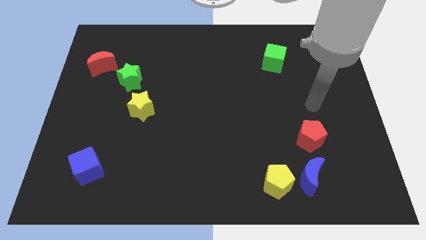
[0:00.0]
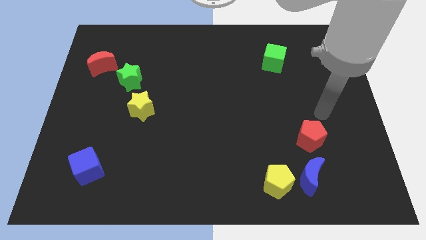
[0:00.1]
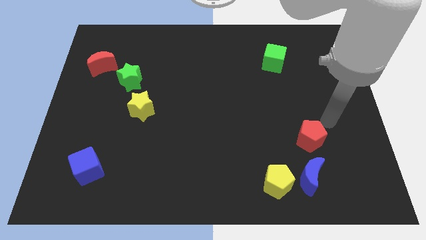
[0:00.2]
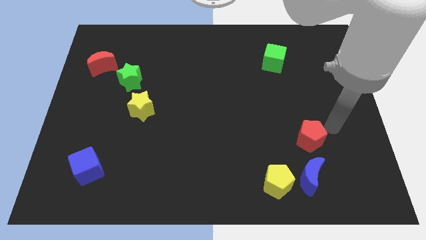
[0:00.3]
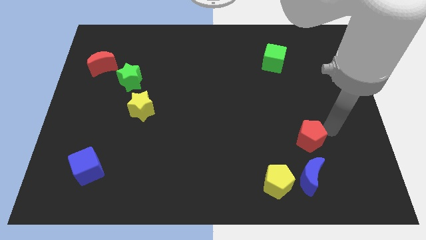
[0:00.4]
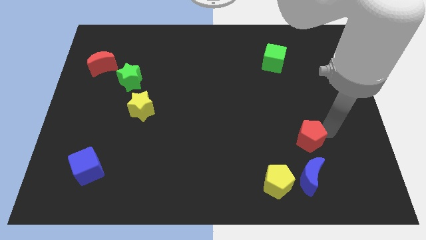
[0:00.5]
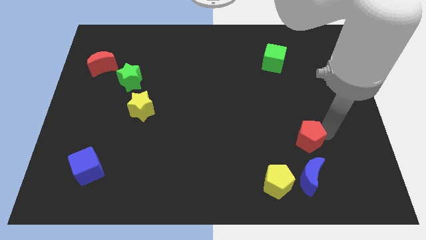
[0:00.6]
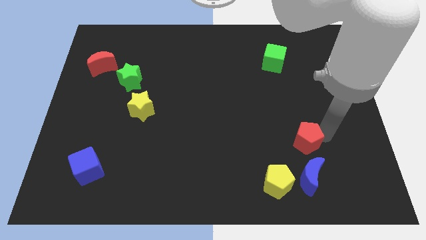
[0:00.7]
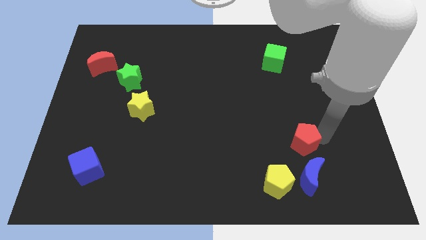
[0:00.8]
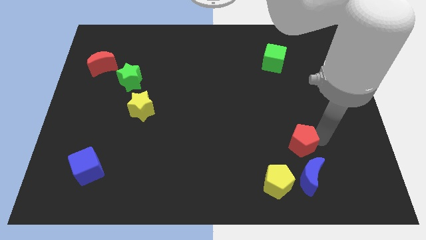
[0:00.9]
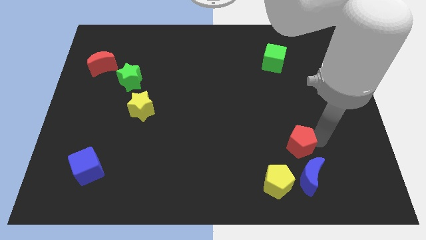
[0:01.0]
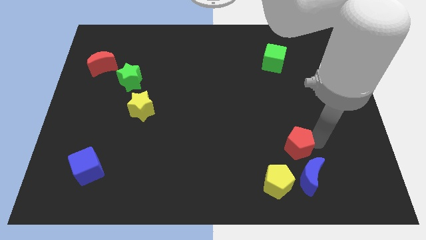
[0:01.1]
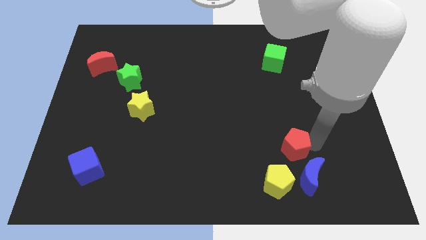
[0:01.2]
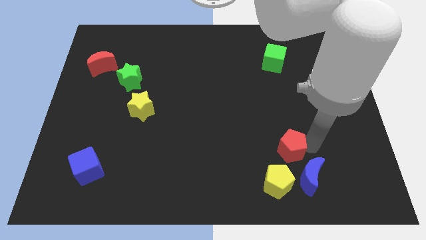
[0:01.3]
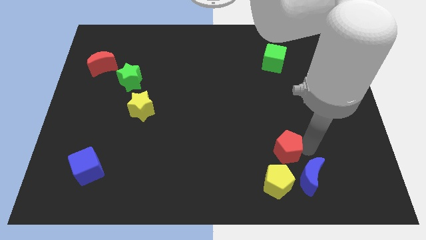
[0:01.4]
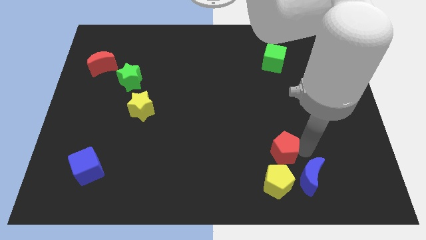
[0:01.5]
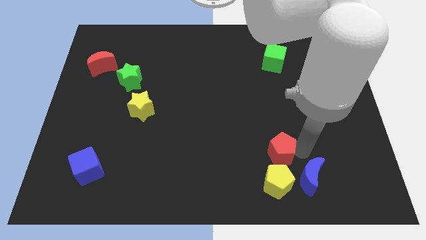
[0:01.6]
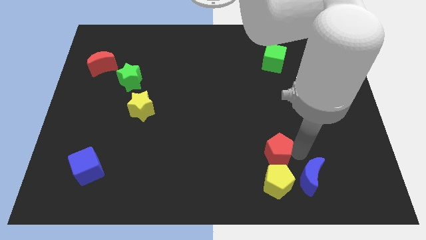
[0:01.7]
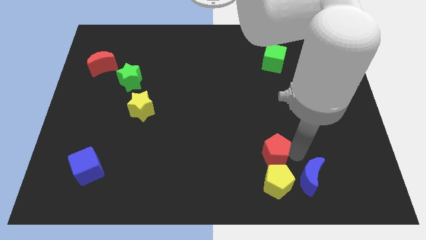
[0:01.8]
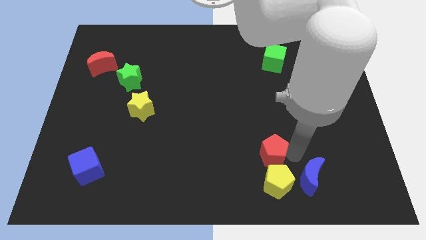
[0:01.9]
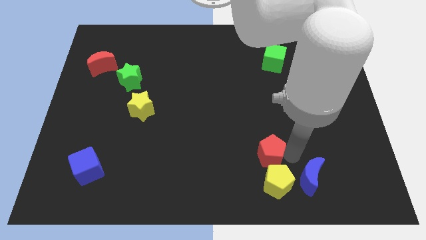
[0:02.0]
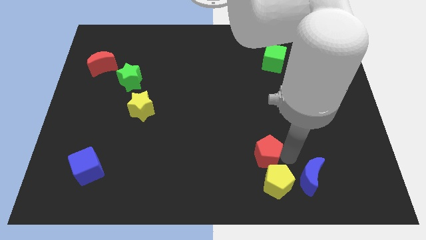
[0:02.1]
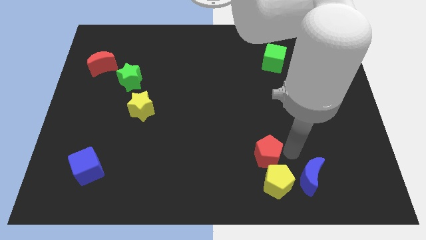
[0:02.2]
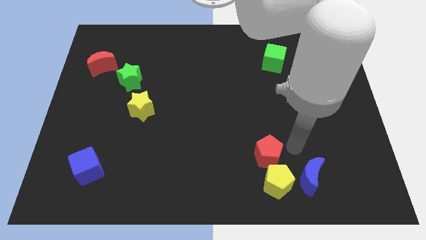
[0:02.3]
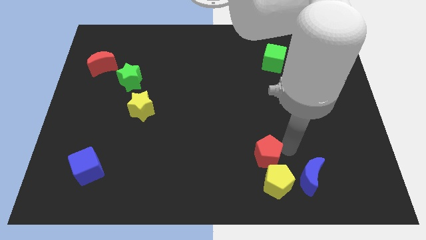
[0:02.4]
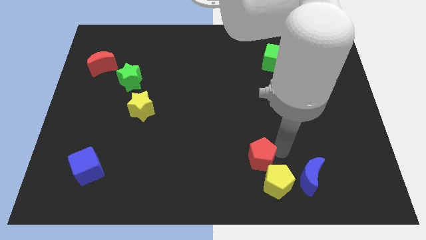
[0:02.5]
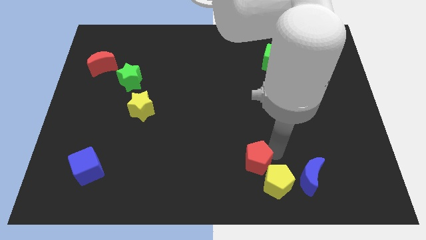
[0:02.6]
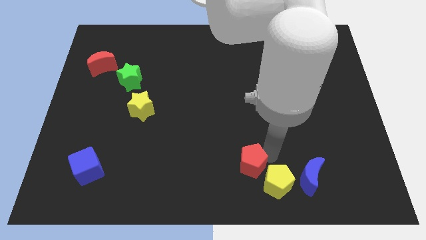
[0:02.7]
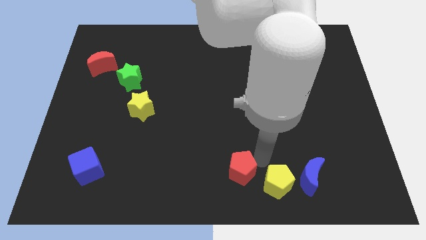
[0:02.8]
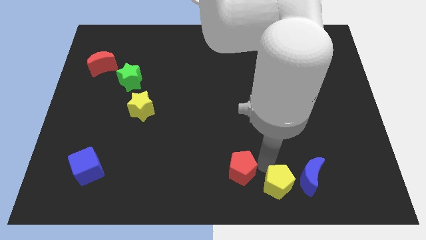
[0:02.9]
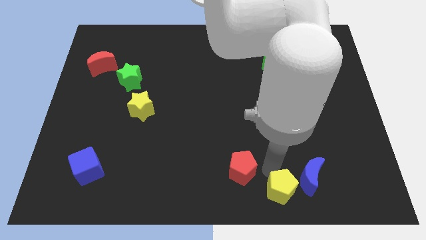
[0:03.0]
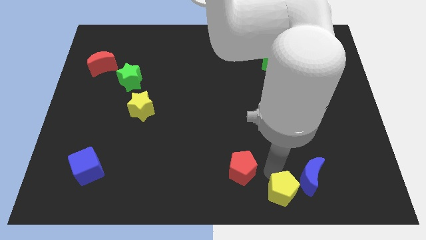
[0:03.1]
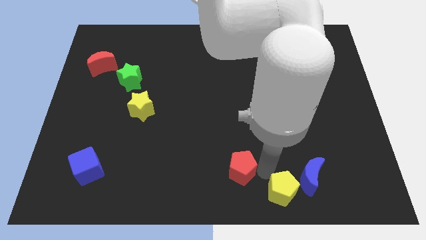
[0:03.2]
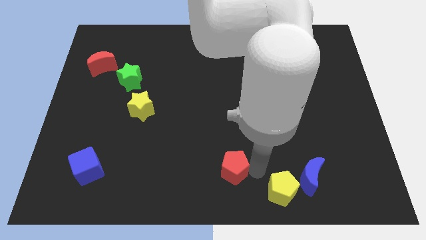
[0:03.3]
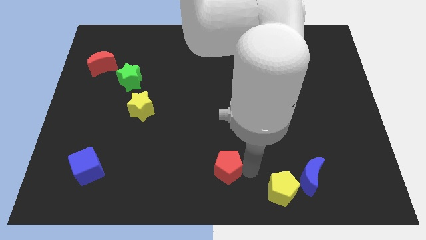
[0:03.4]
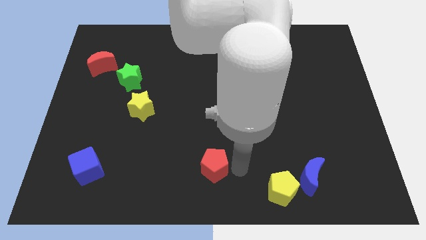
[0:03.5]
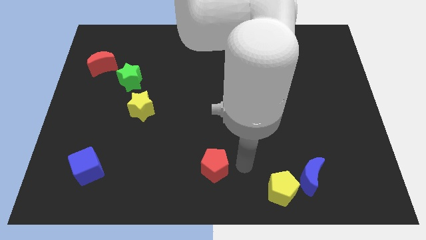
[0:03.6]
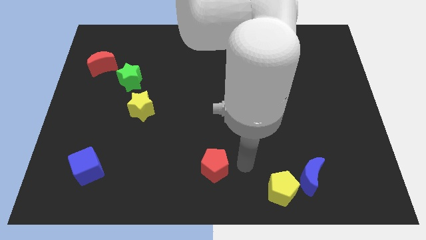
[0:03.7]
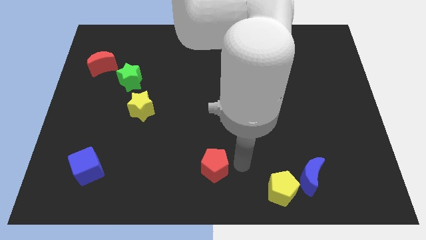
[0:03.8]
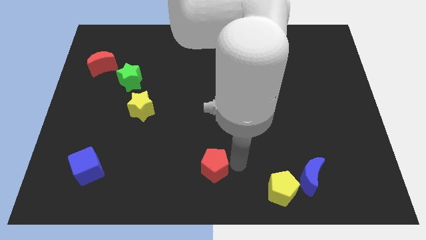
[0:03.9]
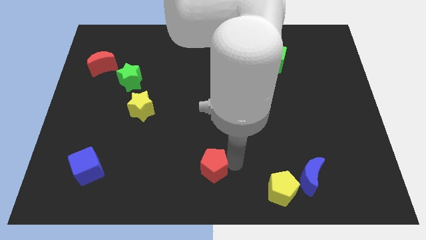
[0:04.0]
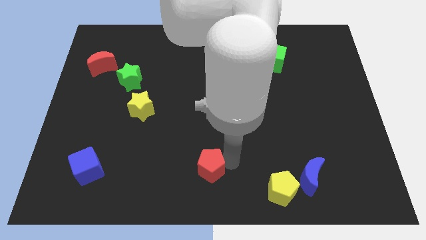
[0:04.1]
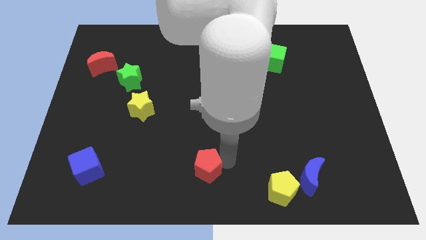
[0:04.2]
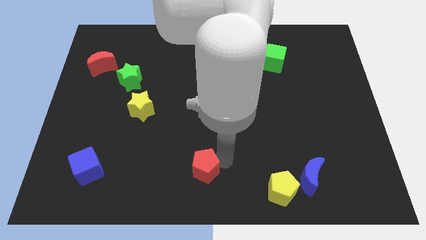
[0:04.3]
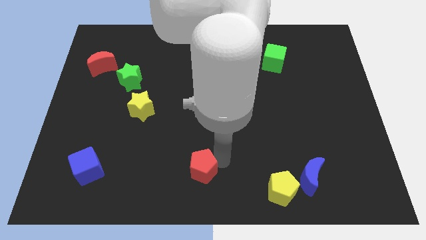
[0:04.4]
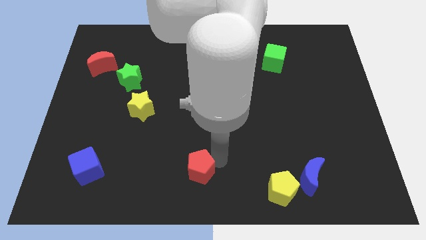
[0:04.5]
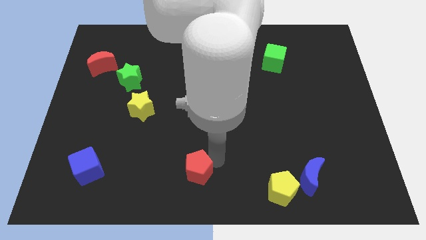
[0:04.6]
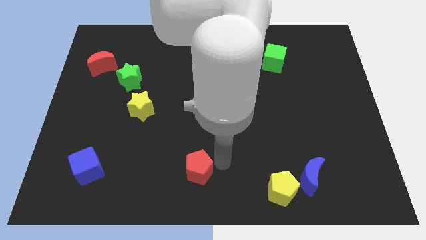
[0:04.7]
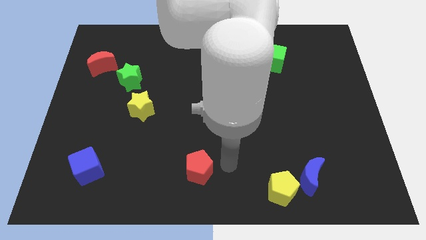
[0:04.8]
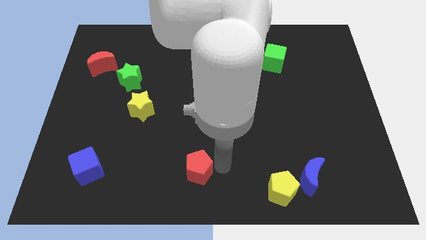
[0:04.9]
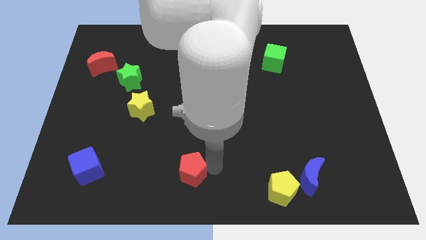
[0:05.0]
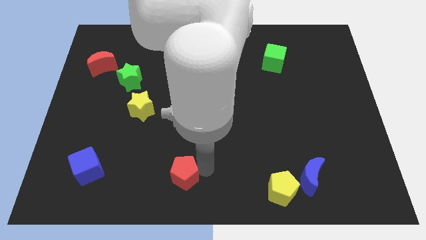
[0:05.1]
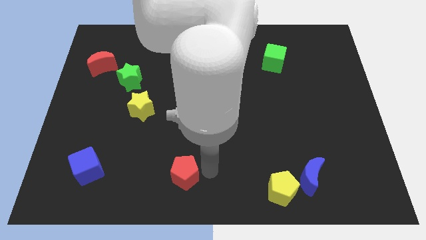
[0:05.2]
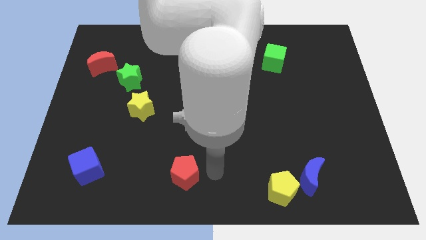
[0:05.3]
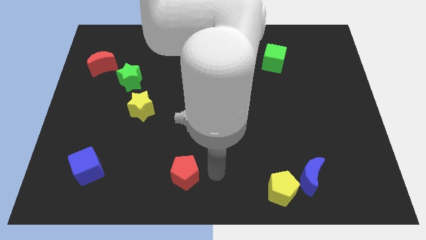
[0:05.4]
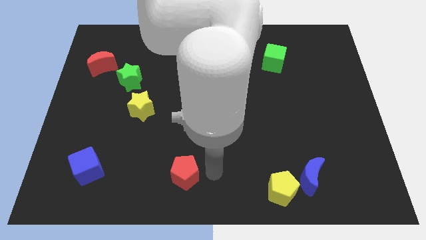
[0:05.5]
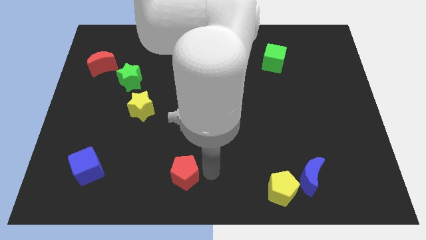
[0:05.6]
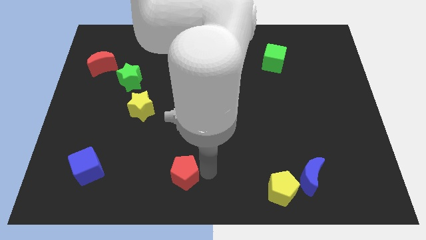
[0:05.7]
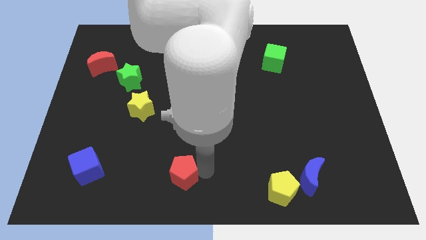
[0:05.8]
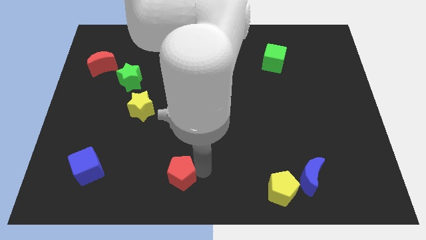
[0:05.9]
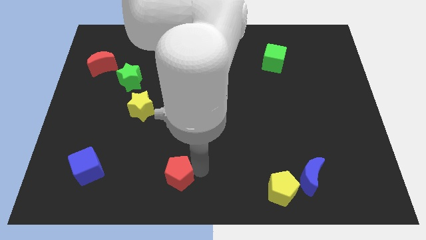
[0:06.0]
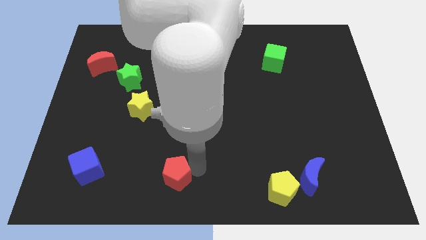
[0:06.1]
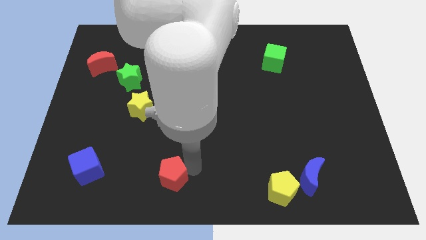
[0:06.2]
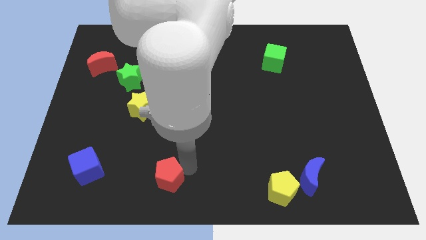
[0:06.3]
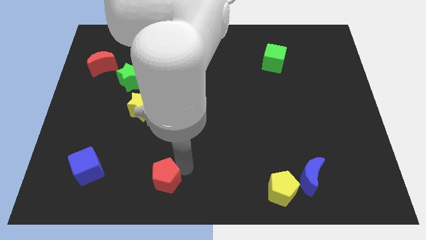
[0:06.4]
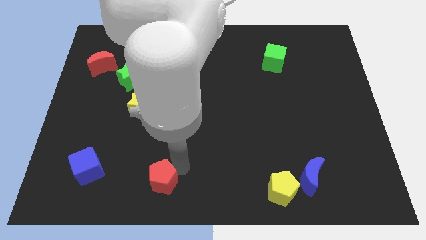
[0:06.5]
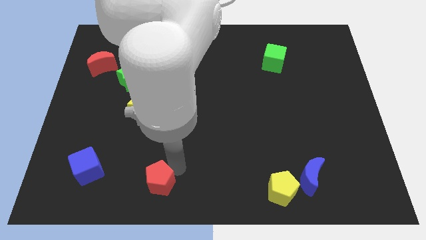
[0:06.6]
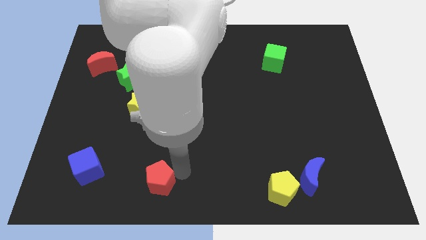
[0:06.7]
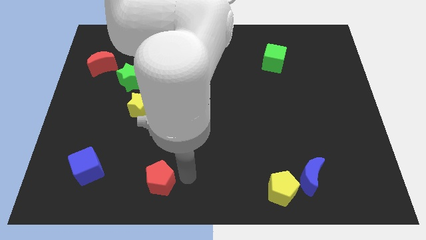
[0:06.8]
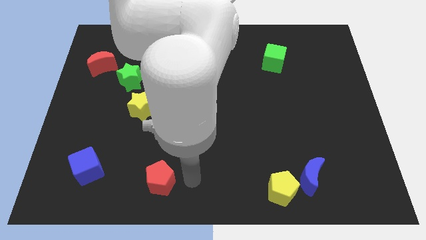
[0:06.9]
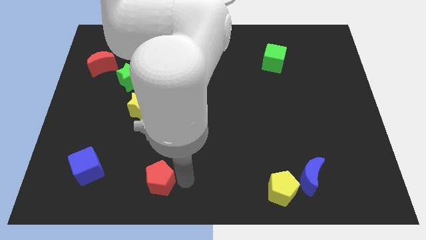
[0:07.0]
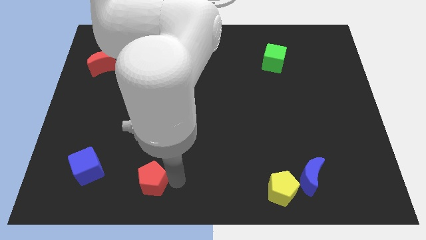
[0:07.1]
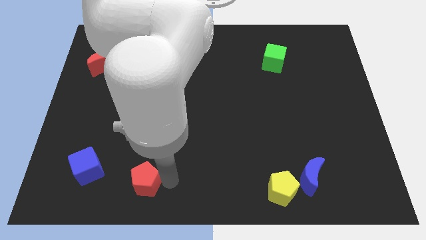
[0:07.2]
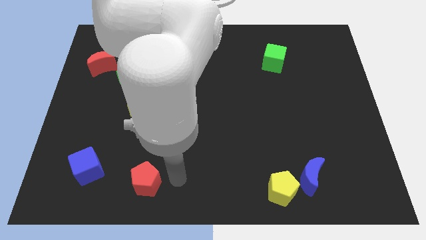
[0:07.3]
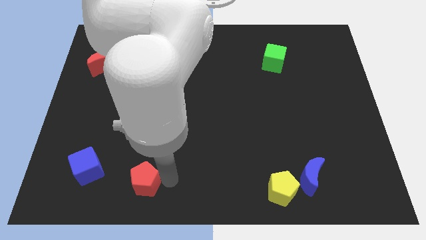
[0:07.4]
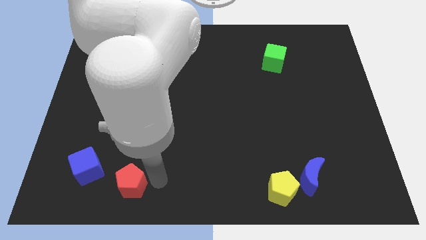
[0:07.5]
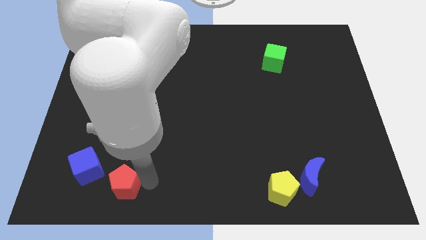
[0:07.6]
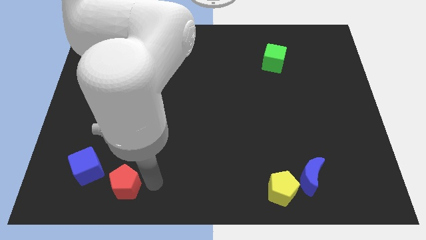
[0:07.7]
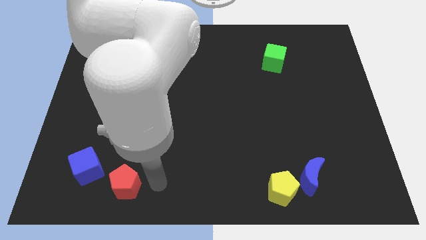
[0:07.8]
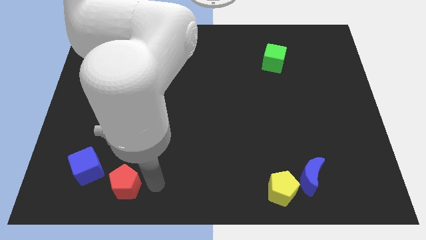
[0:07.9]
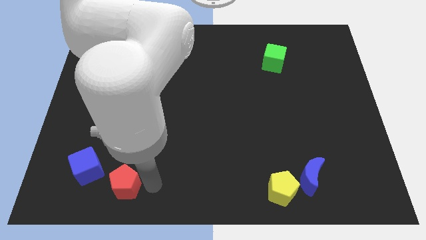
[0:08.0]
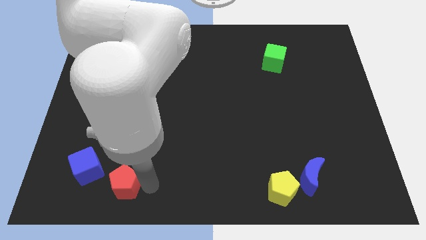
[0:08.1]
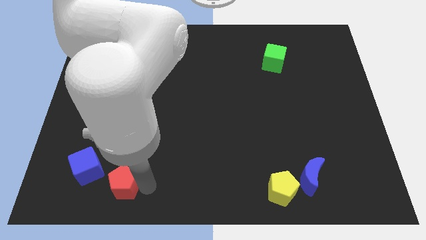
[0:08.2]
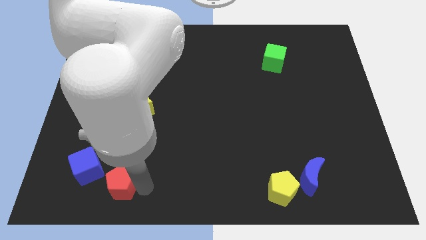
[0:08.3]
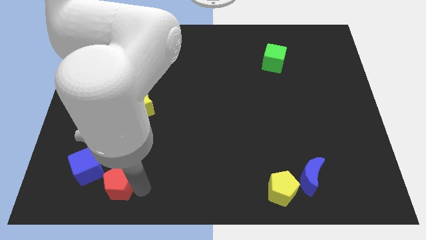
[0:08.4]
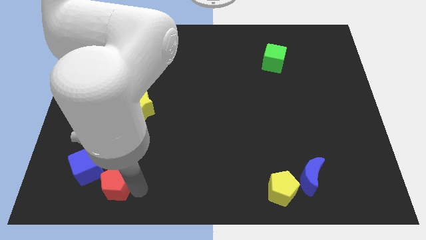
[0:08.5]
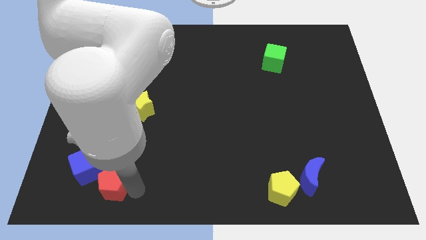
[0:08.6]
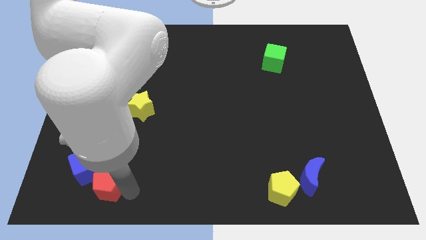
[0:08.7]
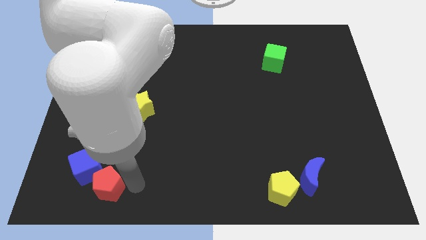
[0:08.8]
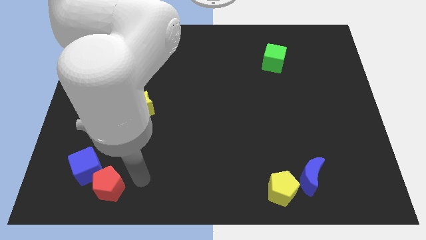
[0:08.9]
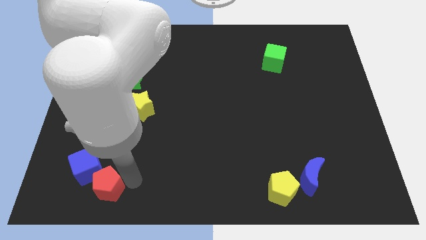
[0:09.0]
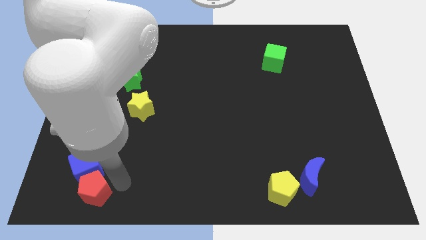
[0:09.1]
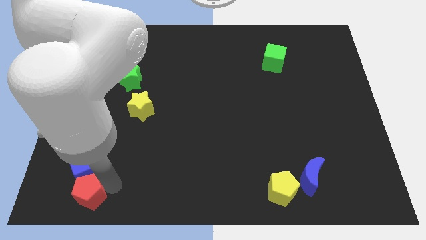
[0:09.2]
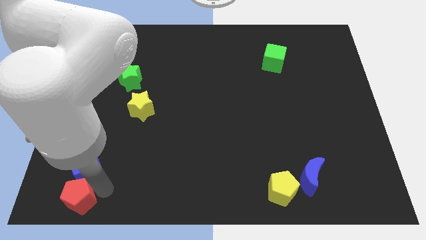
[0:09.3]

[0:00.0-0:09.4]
slide the red pentagon to the bottom left of the board
